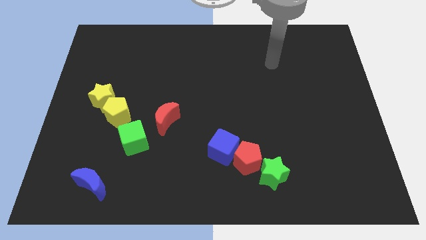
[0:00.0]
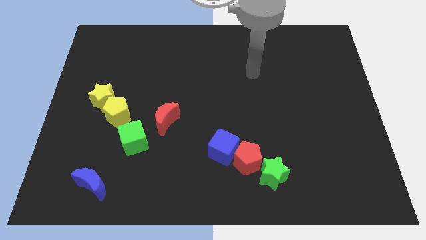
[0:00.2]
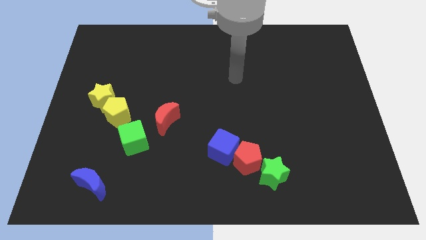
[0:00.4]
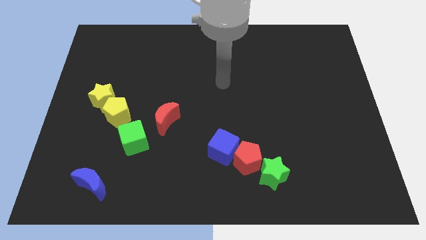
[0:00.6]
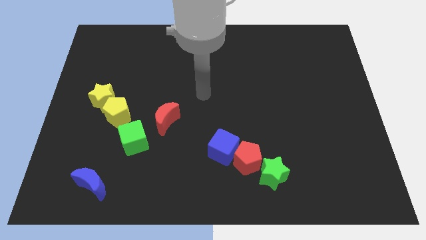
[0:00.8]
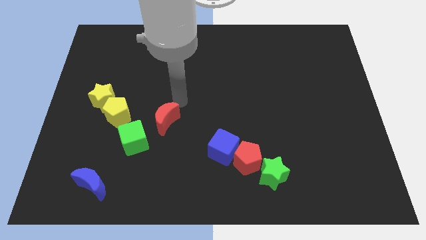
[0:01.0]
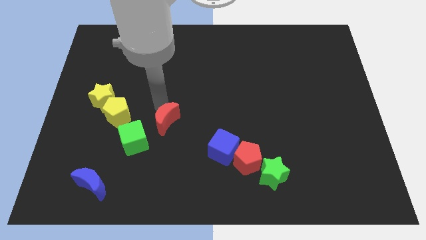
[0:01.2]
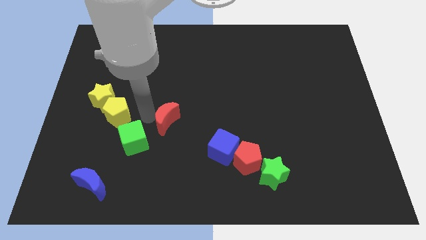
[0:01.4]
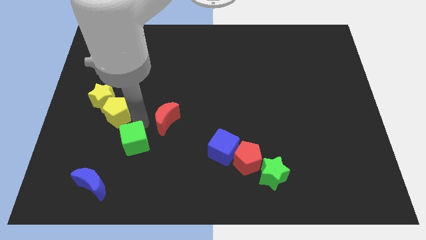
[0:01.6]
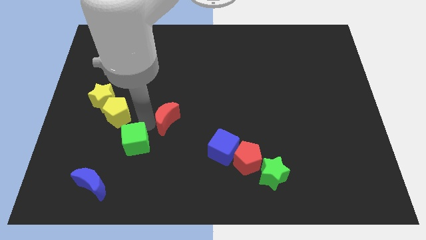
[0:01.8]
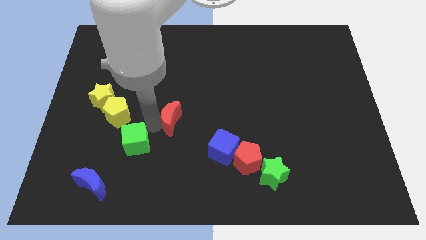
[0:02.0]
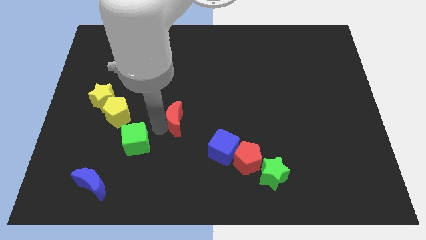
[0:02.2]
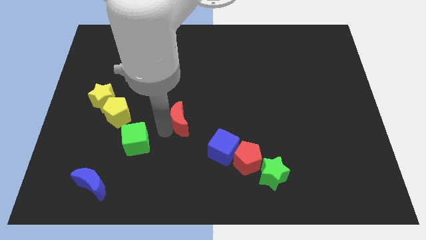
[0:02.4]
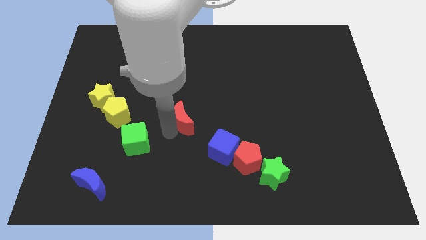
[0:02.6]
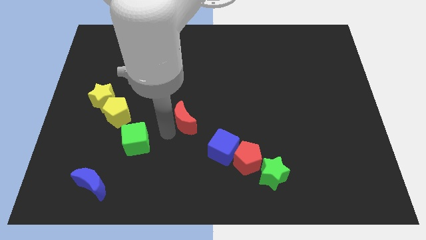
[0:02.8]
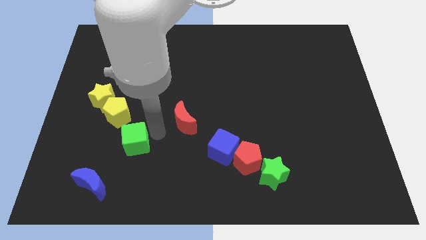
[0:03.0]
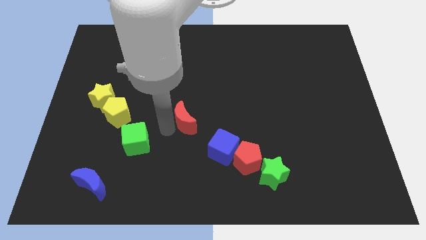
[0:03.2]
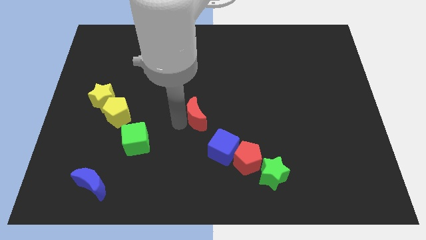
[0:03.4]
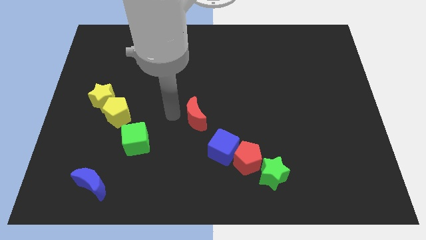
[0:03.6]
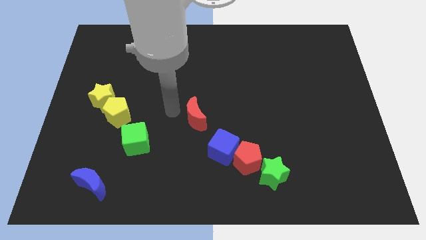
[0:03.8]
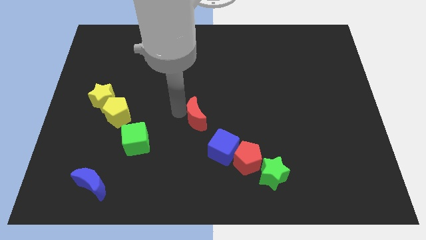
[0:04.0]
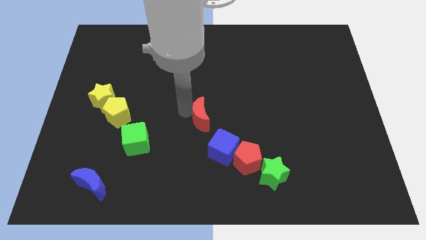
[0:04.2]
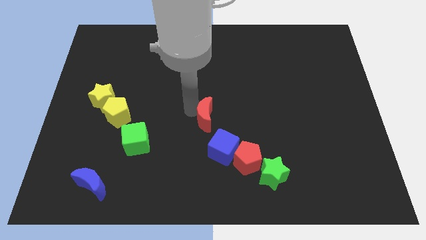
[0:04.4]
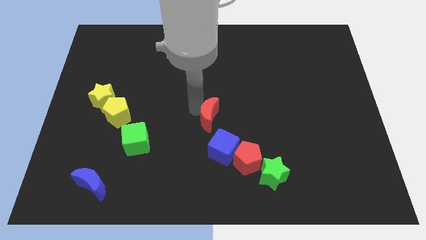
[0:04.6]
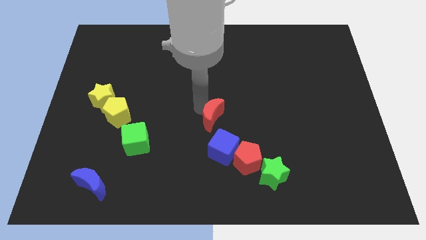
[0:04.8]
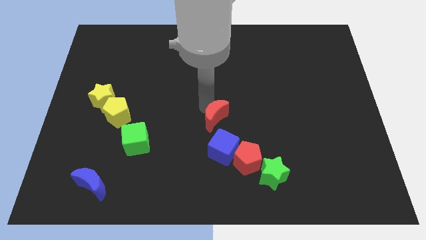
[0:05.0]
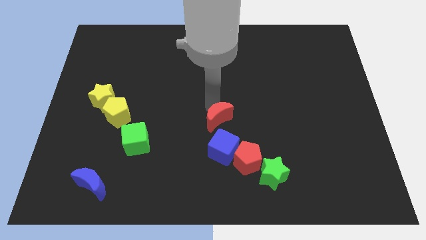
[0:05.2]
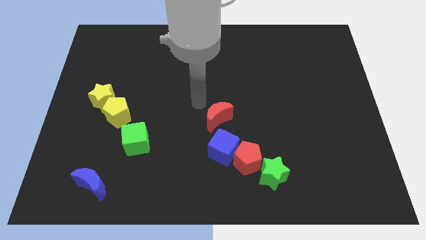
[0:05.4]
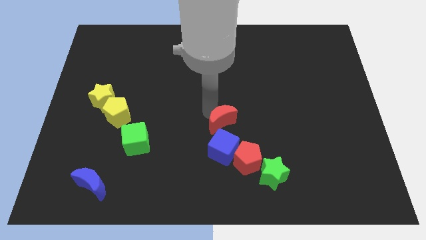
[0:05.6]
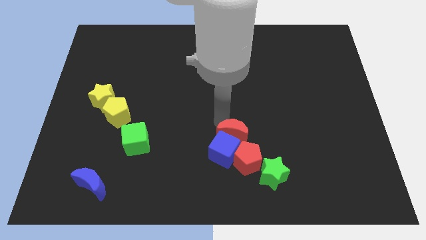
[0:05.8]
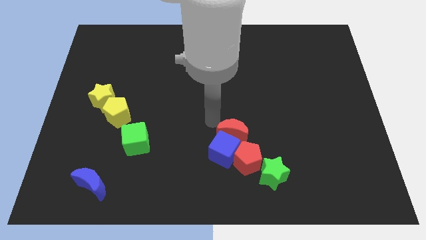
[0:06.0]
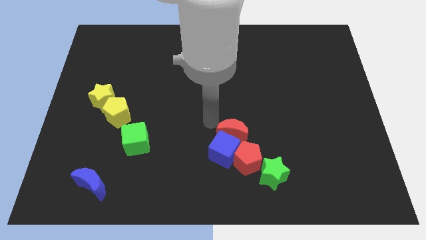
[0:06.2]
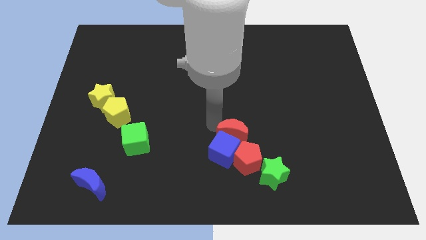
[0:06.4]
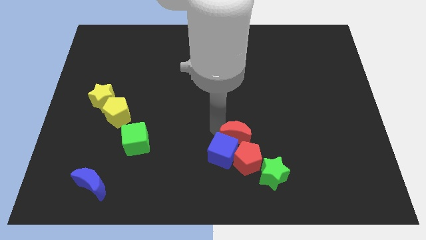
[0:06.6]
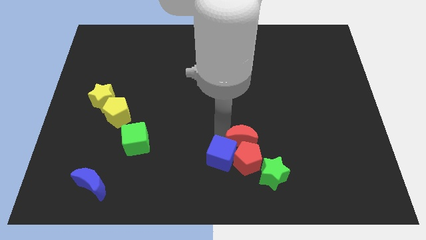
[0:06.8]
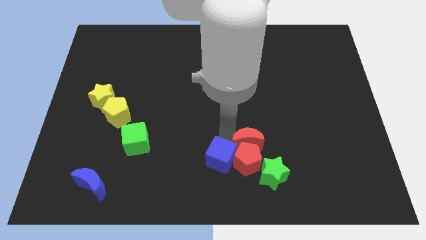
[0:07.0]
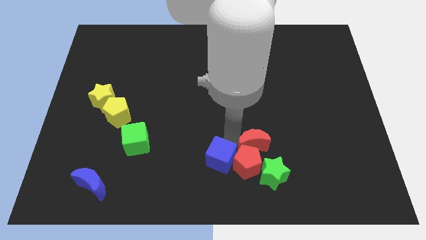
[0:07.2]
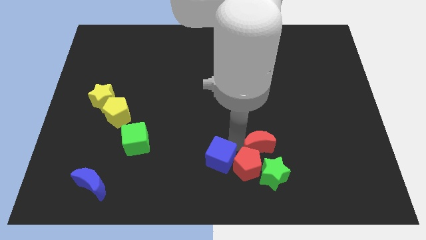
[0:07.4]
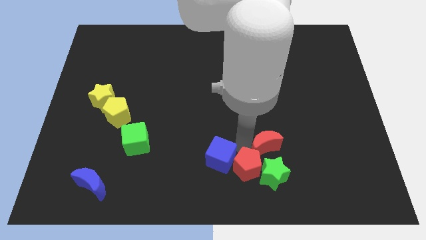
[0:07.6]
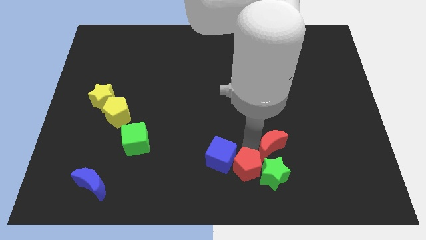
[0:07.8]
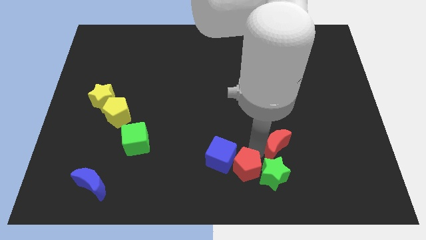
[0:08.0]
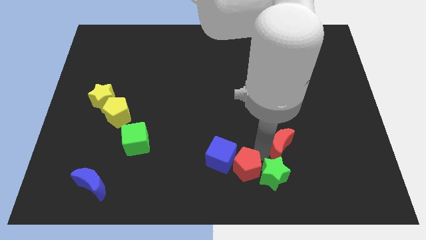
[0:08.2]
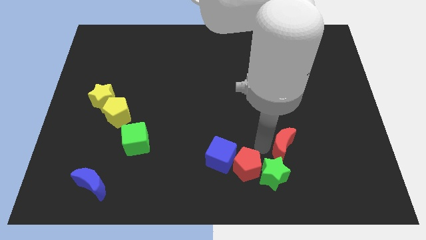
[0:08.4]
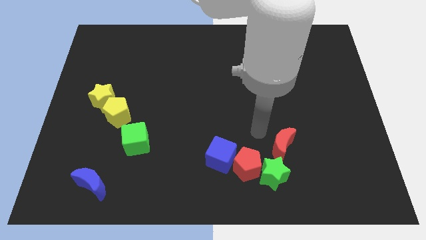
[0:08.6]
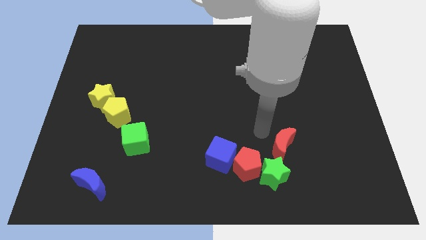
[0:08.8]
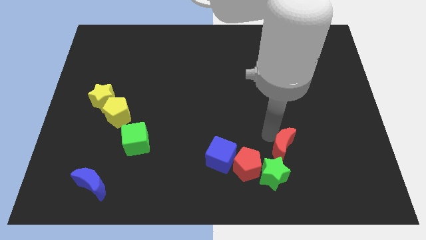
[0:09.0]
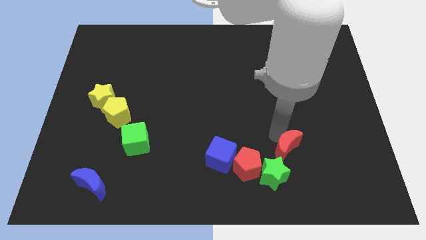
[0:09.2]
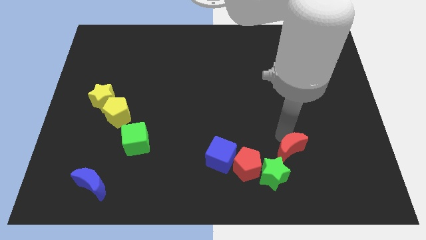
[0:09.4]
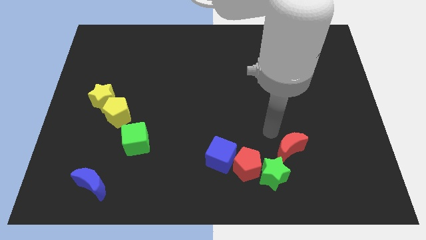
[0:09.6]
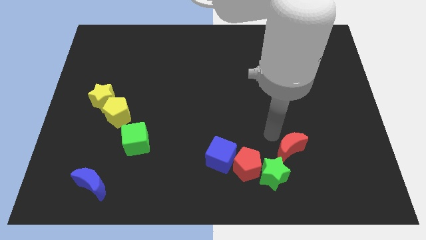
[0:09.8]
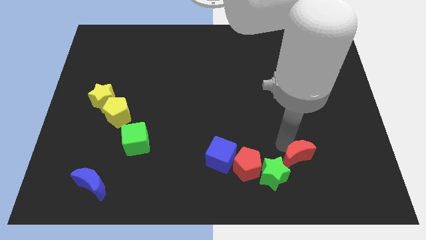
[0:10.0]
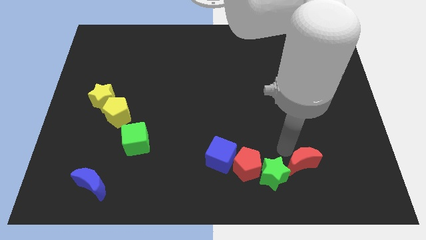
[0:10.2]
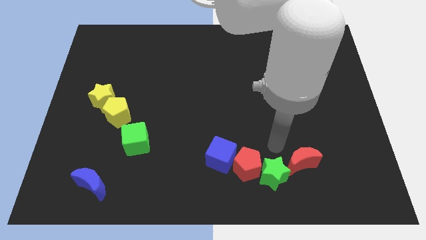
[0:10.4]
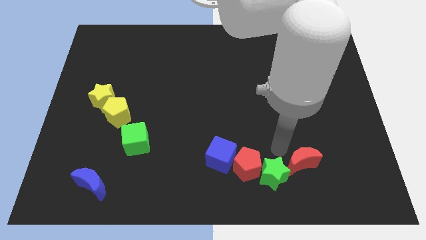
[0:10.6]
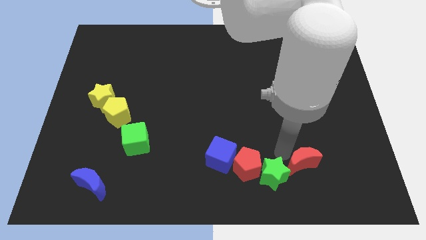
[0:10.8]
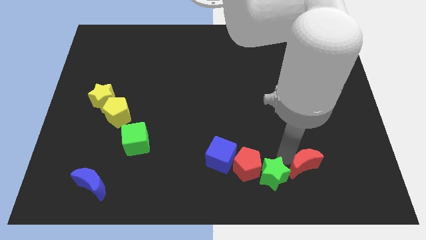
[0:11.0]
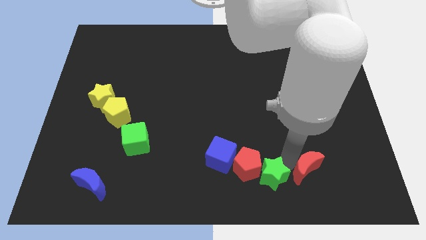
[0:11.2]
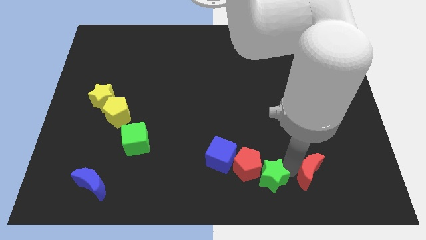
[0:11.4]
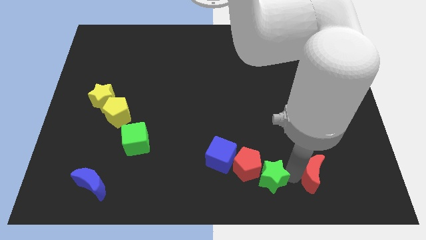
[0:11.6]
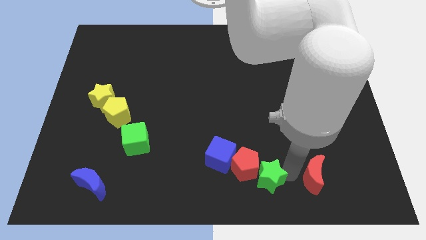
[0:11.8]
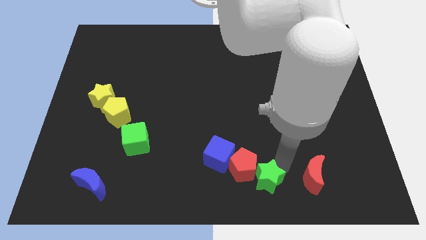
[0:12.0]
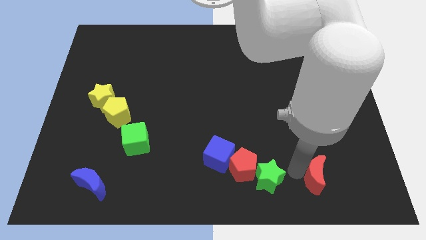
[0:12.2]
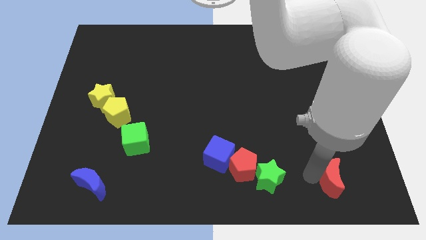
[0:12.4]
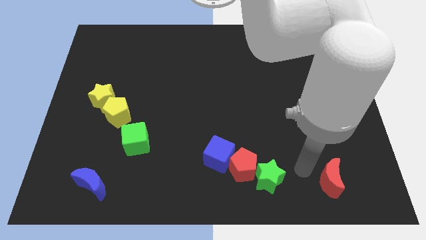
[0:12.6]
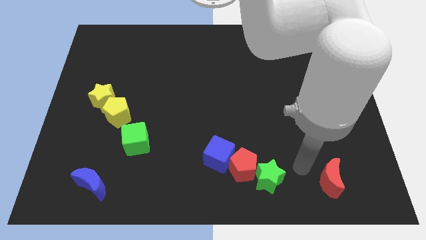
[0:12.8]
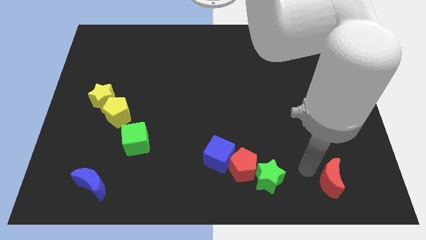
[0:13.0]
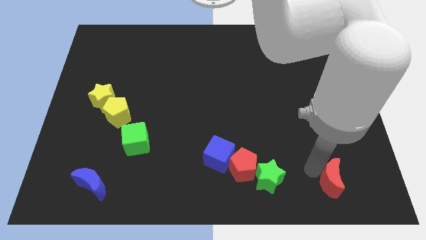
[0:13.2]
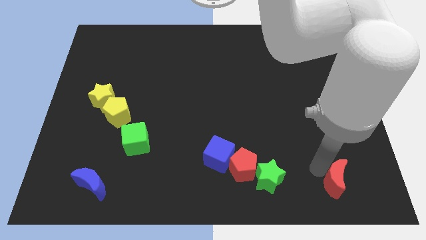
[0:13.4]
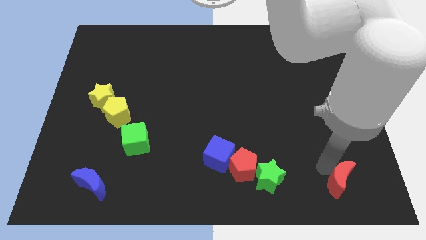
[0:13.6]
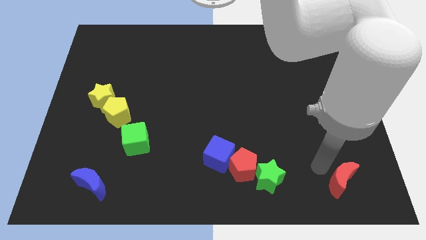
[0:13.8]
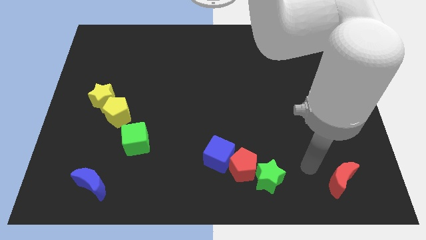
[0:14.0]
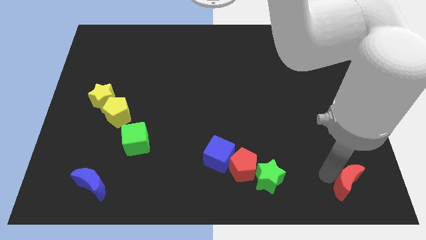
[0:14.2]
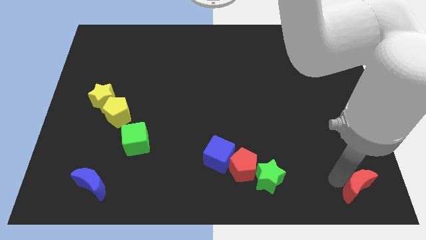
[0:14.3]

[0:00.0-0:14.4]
put the red moon to the bottom right corner
